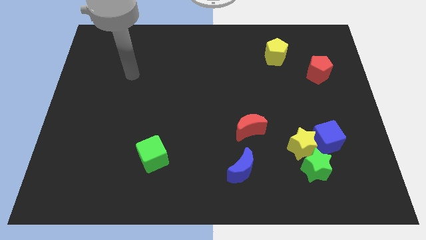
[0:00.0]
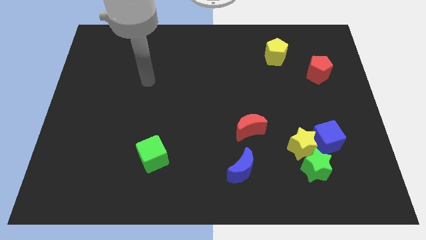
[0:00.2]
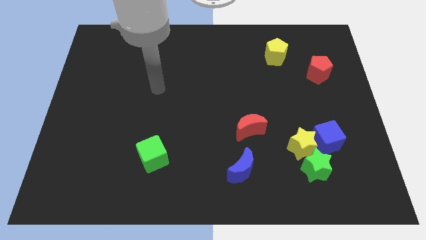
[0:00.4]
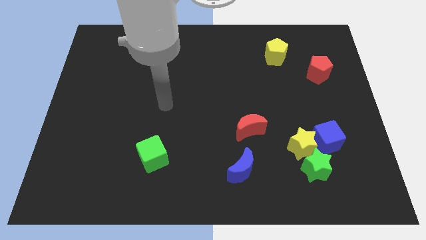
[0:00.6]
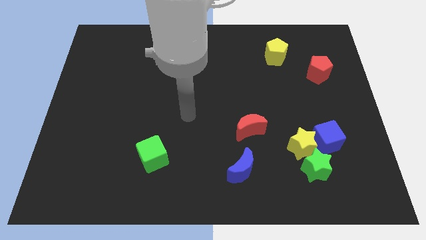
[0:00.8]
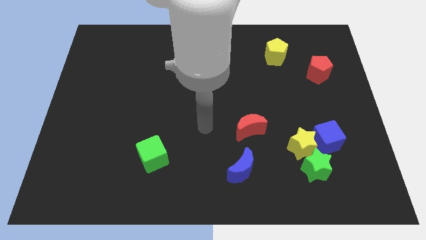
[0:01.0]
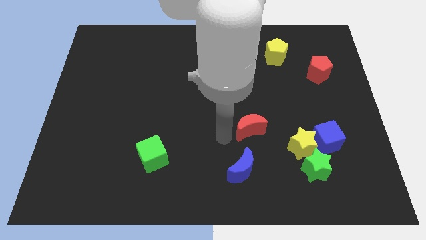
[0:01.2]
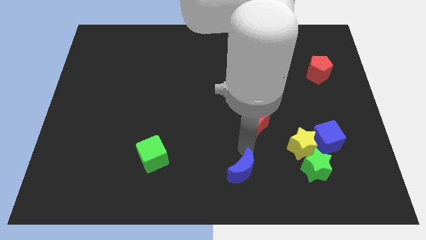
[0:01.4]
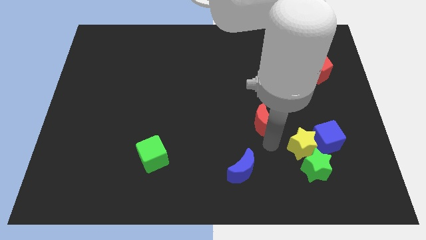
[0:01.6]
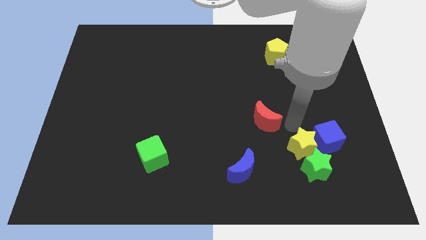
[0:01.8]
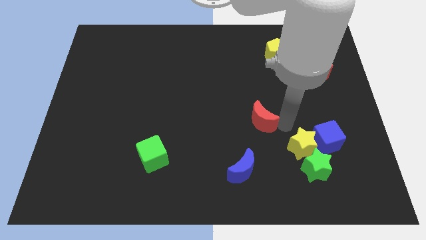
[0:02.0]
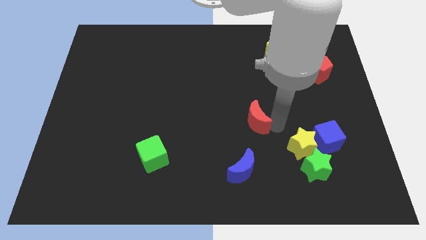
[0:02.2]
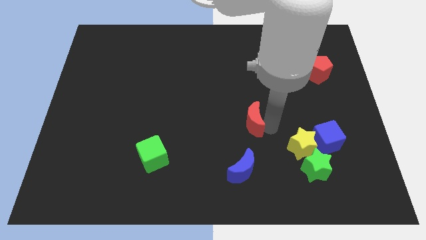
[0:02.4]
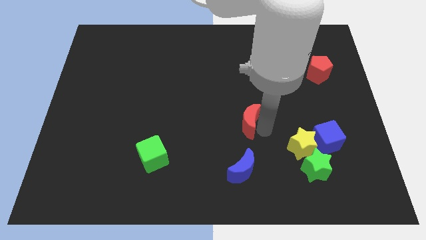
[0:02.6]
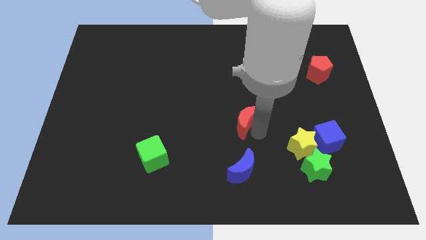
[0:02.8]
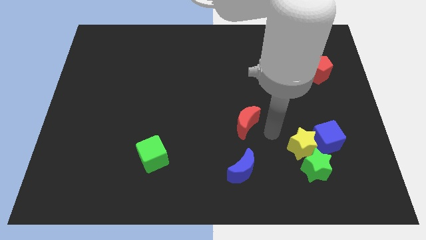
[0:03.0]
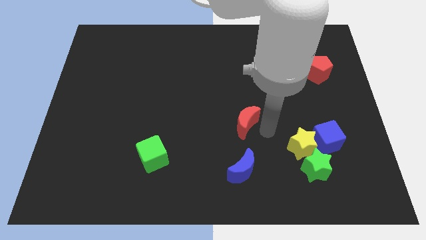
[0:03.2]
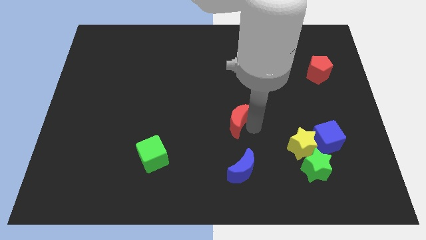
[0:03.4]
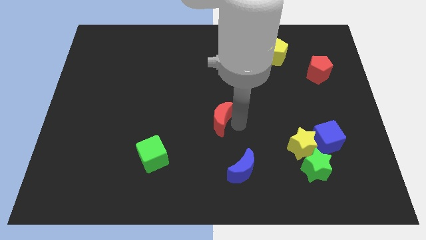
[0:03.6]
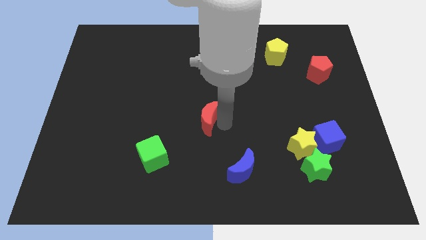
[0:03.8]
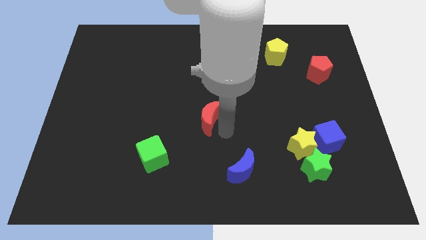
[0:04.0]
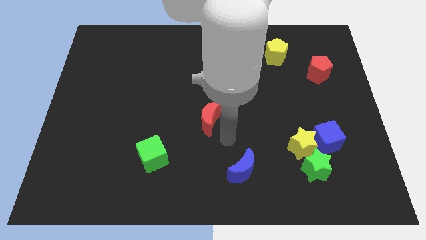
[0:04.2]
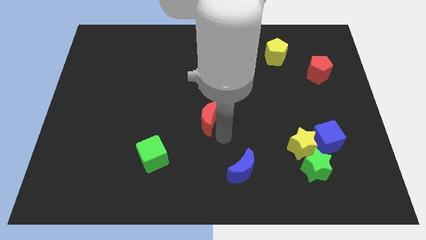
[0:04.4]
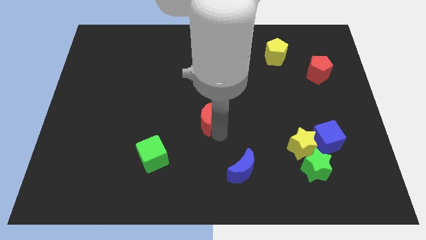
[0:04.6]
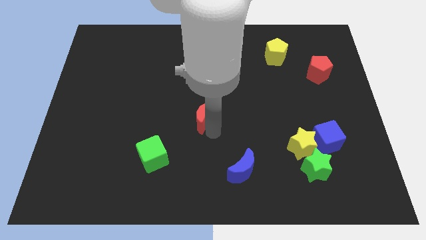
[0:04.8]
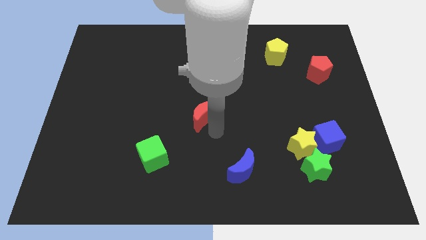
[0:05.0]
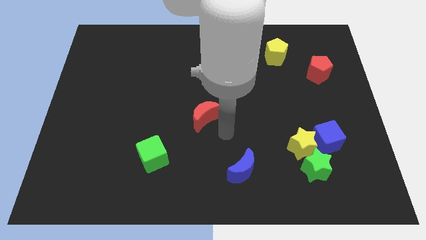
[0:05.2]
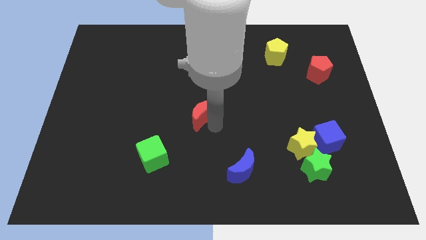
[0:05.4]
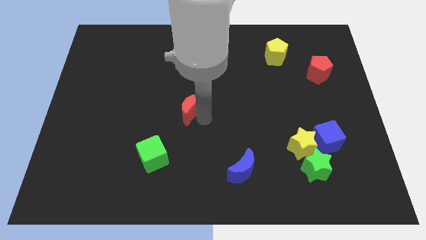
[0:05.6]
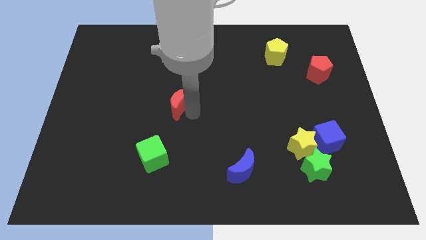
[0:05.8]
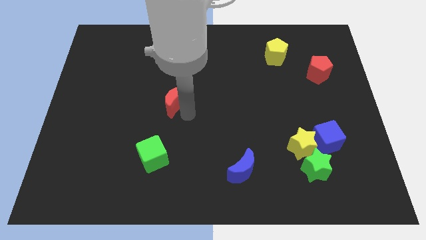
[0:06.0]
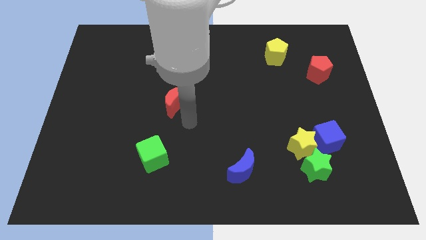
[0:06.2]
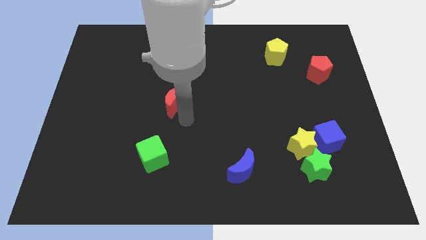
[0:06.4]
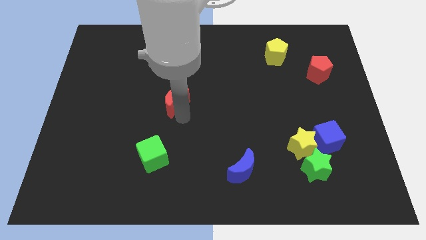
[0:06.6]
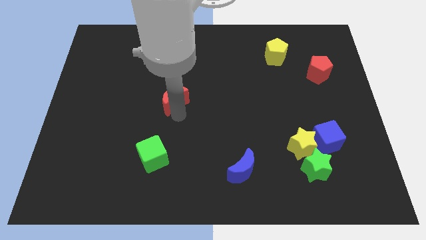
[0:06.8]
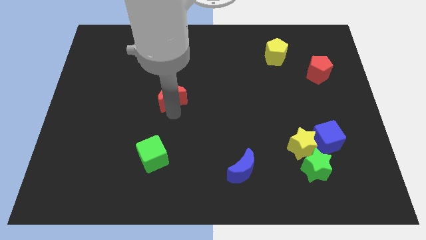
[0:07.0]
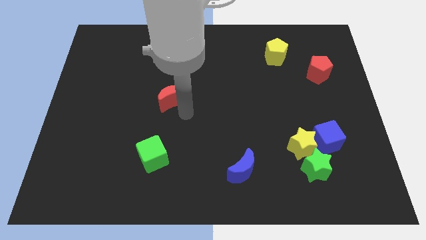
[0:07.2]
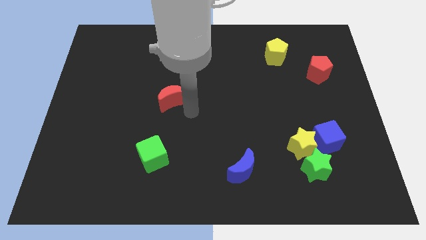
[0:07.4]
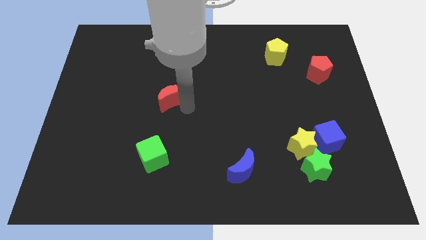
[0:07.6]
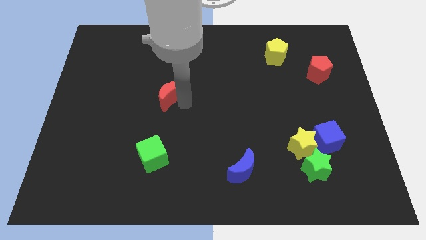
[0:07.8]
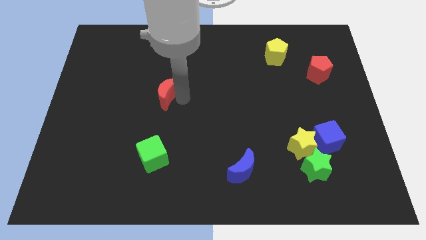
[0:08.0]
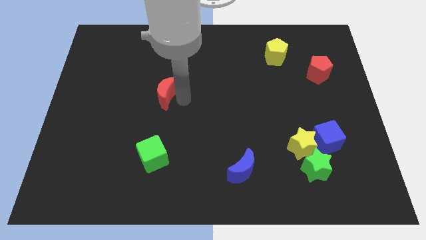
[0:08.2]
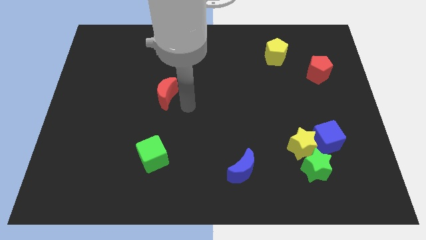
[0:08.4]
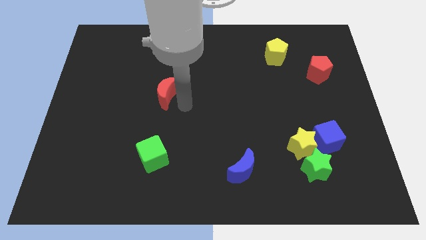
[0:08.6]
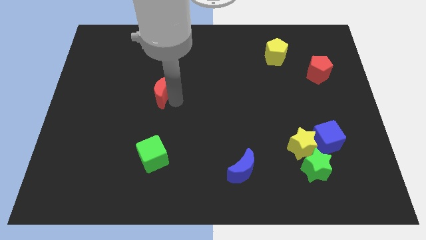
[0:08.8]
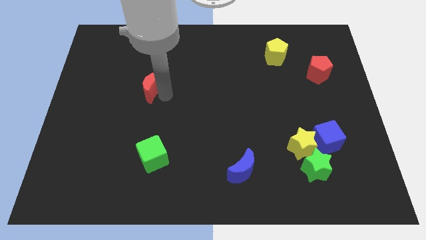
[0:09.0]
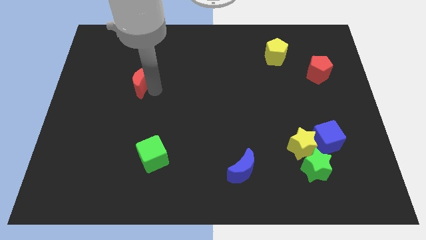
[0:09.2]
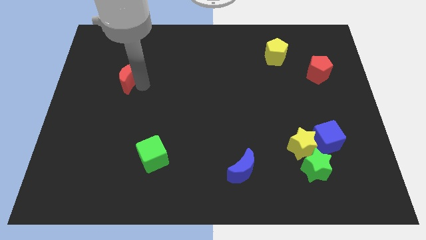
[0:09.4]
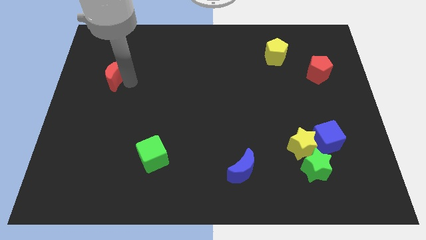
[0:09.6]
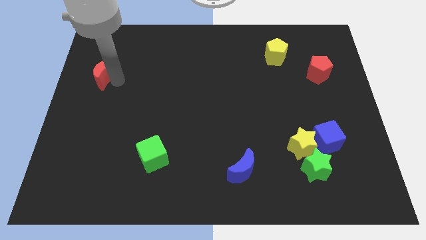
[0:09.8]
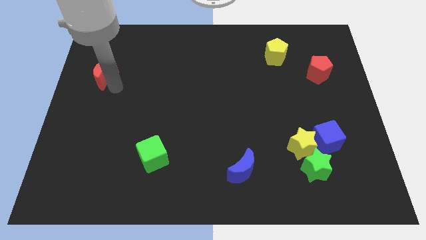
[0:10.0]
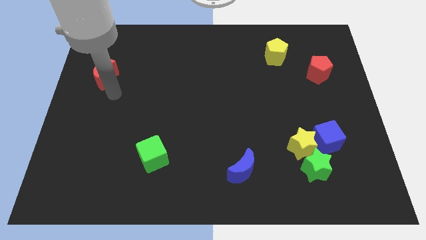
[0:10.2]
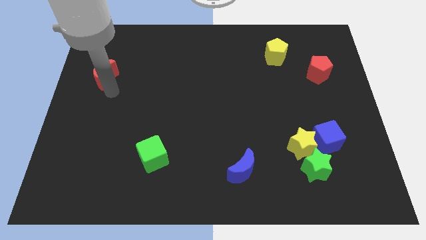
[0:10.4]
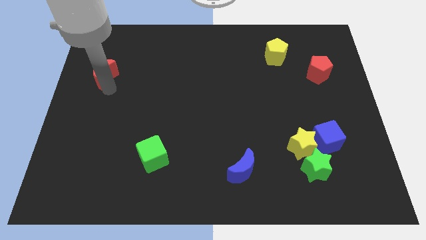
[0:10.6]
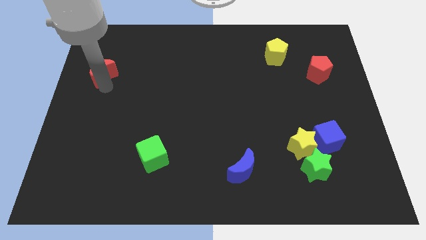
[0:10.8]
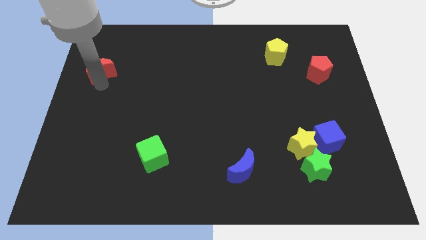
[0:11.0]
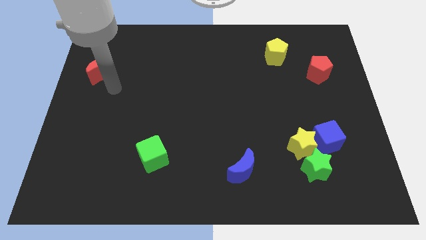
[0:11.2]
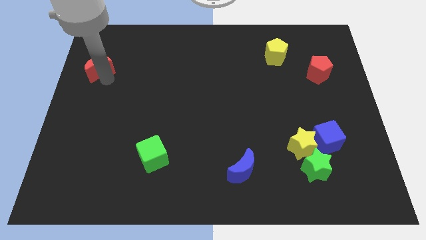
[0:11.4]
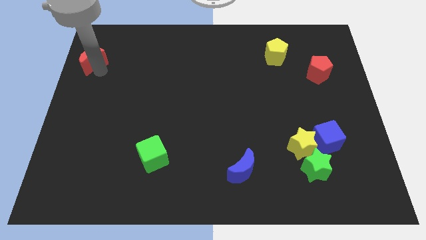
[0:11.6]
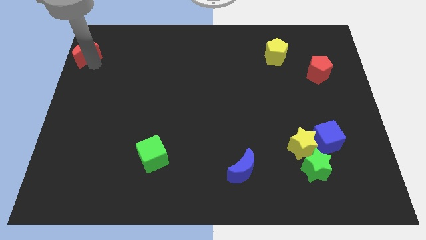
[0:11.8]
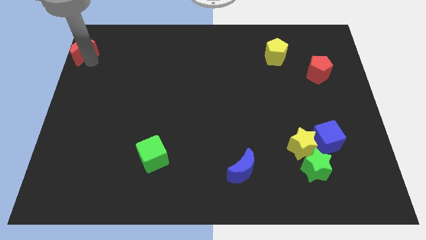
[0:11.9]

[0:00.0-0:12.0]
move the red moon to the top left of the board

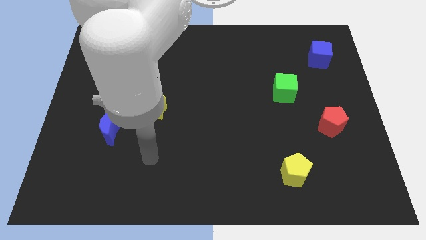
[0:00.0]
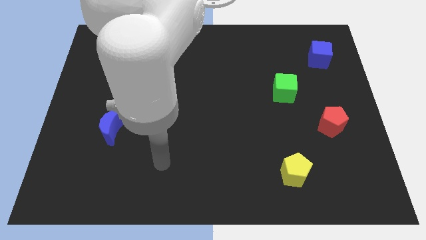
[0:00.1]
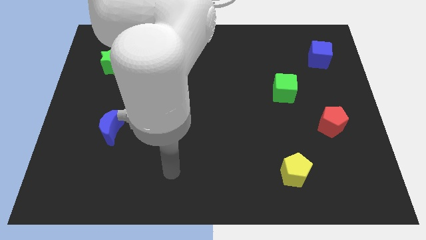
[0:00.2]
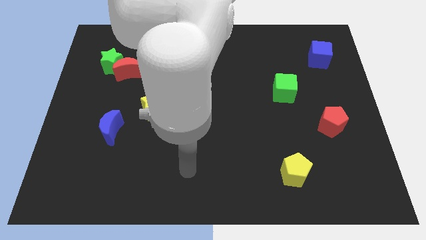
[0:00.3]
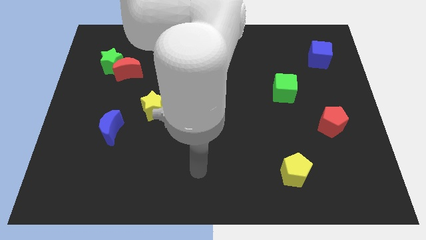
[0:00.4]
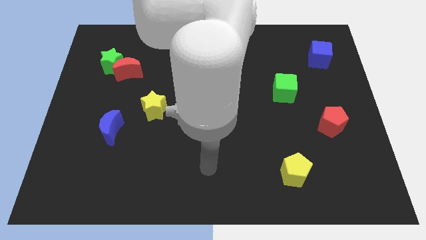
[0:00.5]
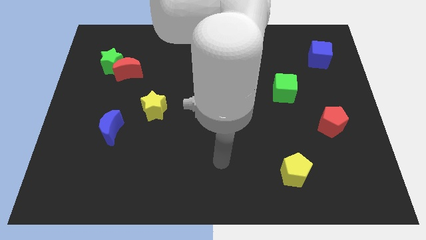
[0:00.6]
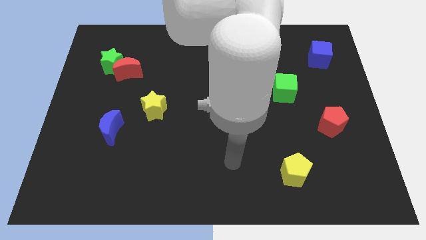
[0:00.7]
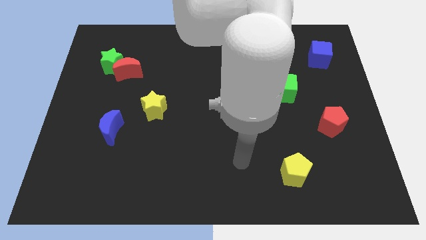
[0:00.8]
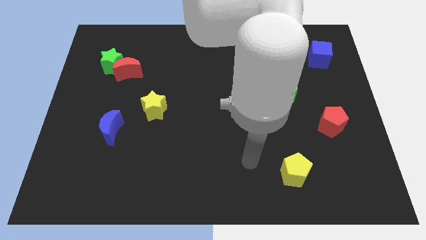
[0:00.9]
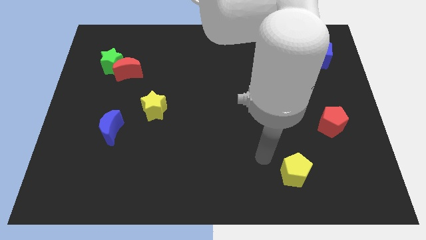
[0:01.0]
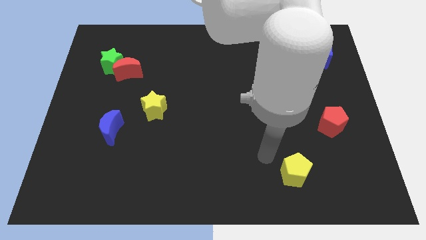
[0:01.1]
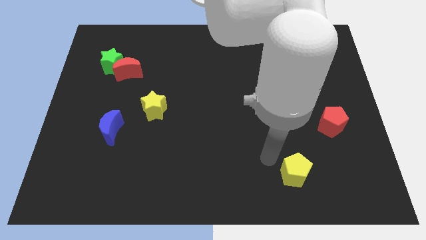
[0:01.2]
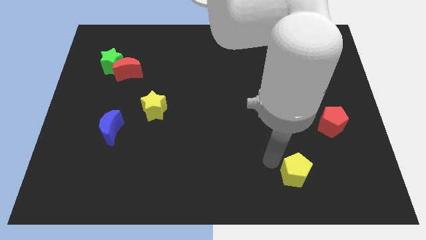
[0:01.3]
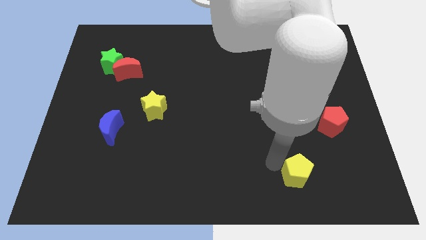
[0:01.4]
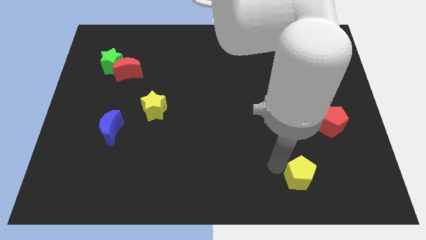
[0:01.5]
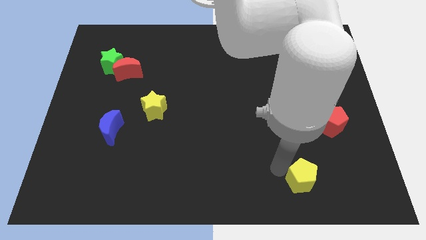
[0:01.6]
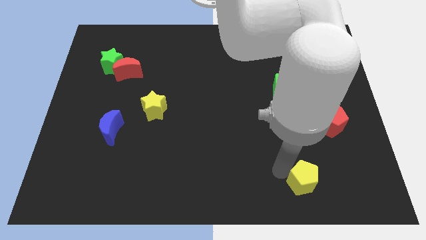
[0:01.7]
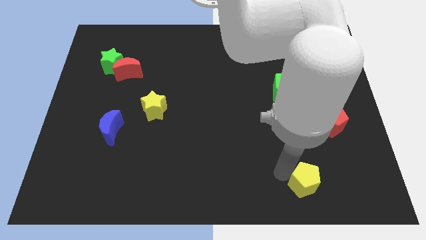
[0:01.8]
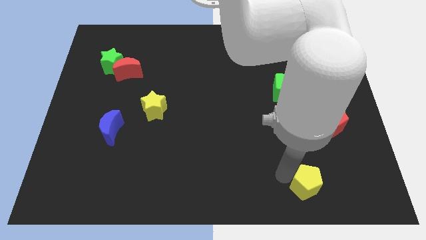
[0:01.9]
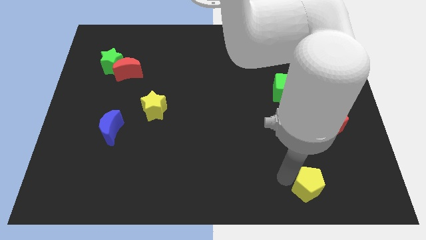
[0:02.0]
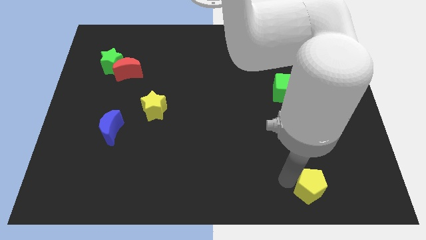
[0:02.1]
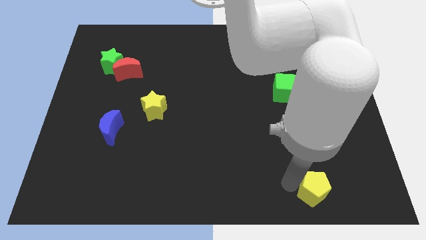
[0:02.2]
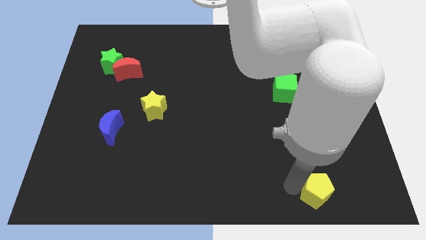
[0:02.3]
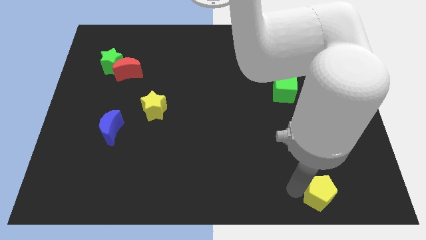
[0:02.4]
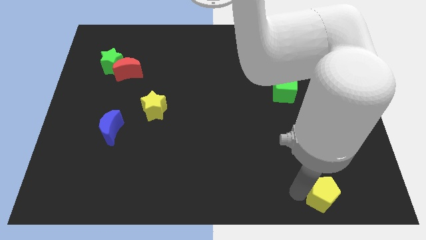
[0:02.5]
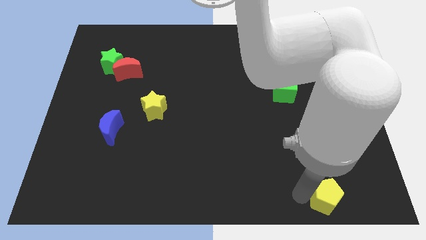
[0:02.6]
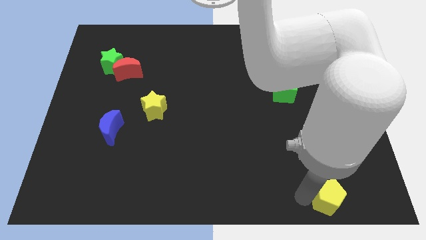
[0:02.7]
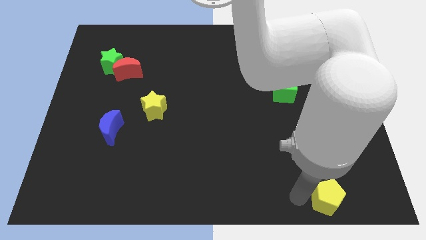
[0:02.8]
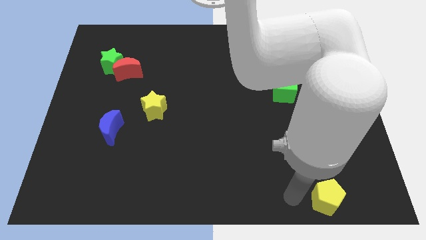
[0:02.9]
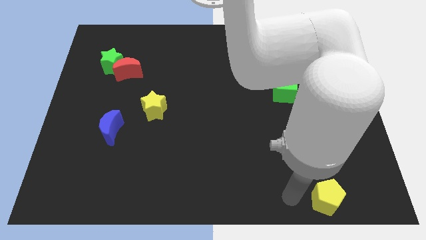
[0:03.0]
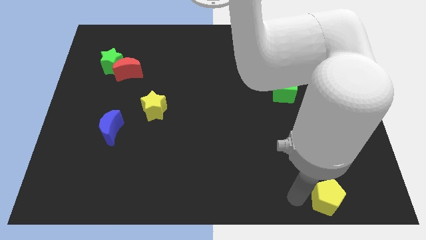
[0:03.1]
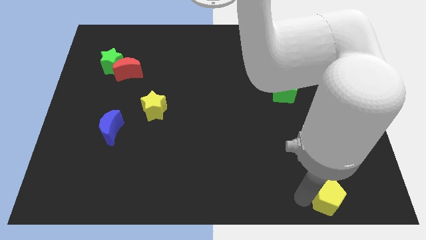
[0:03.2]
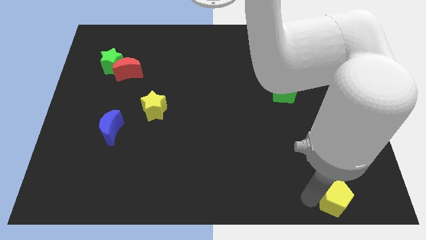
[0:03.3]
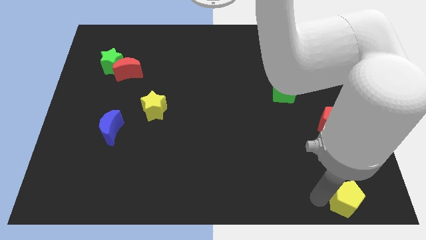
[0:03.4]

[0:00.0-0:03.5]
move the yellow pentagon to the bottom right
